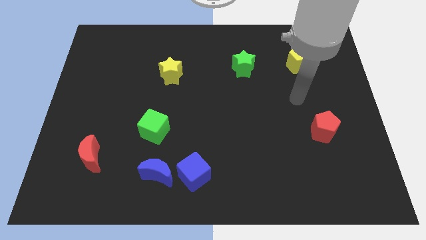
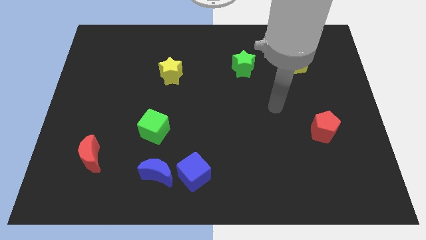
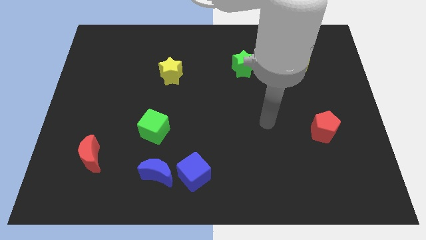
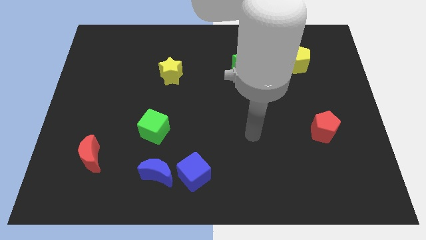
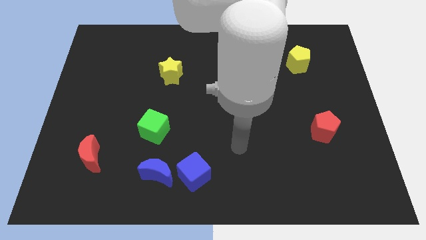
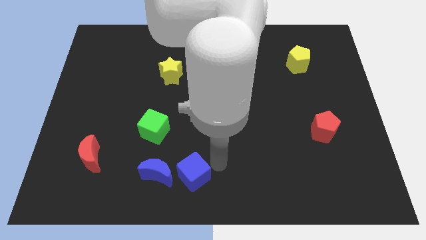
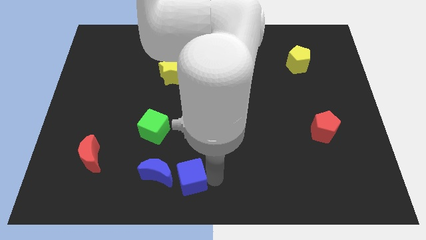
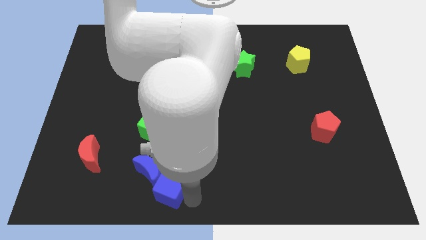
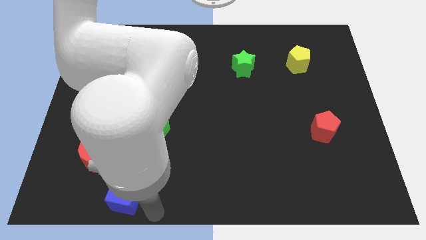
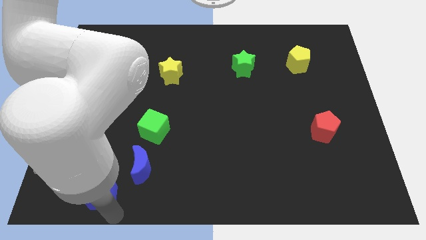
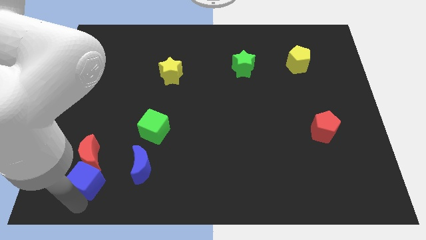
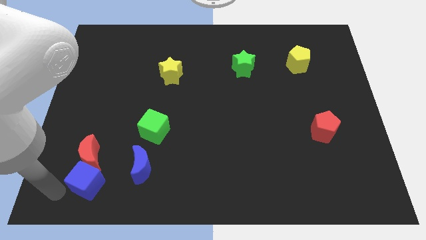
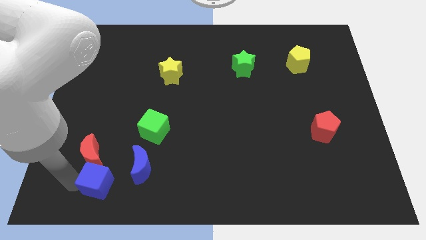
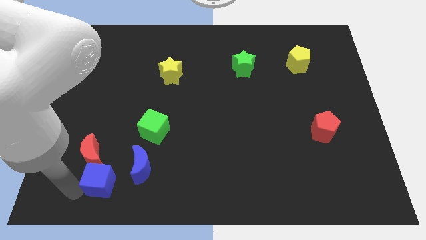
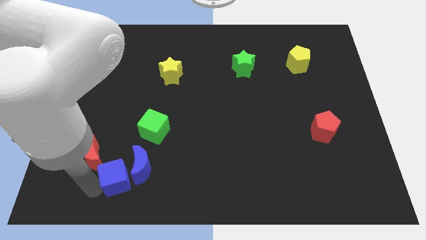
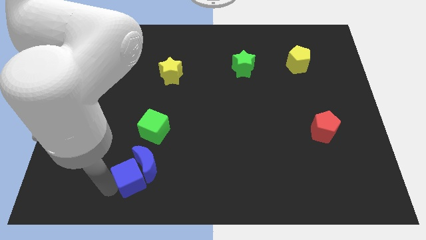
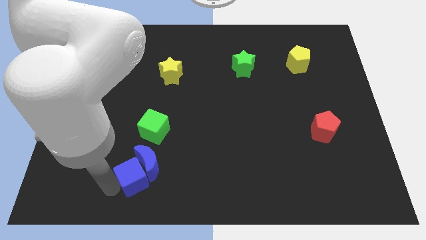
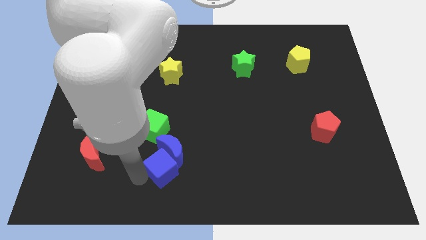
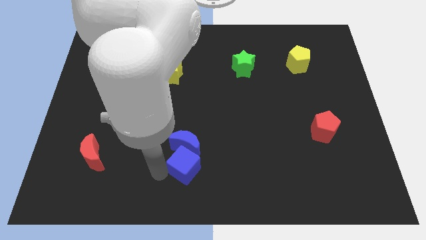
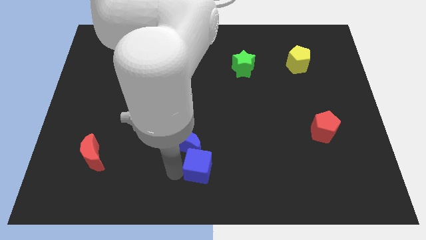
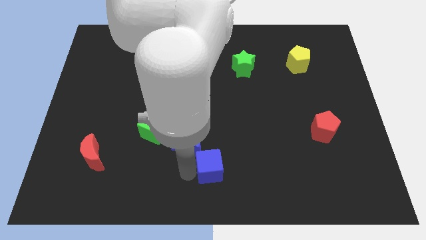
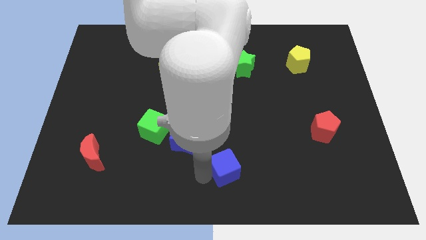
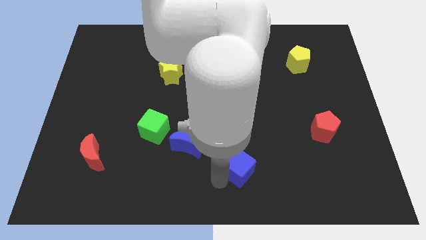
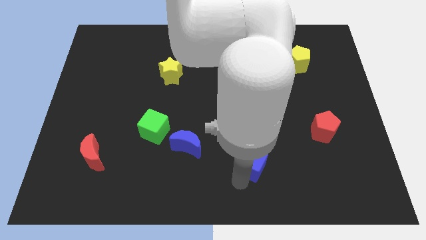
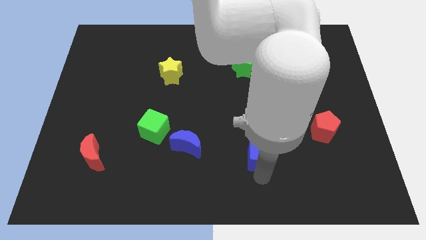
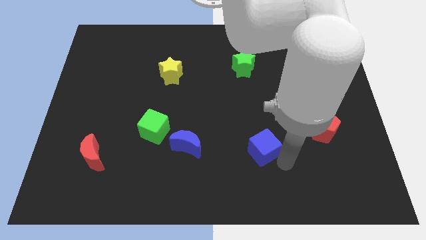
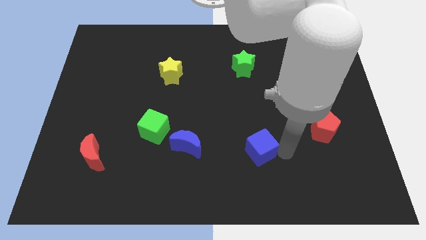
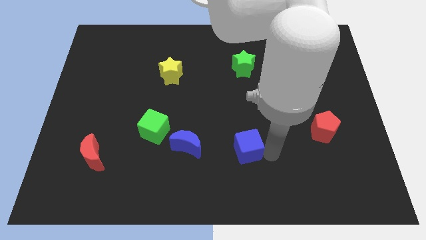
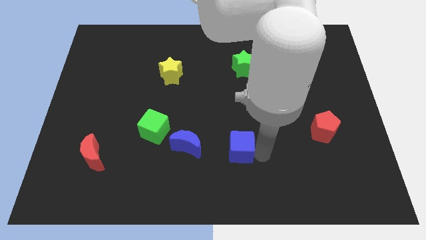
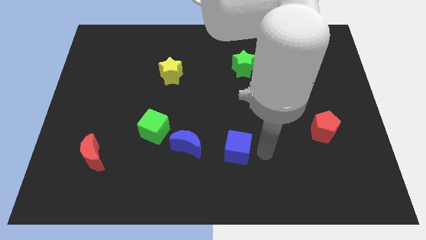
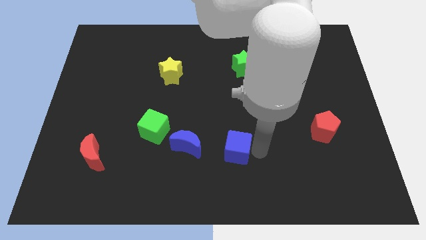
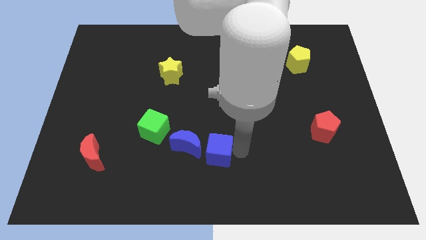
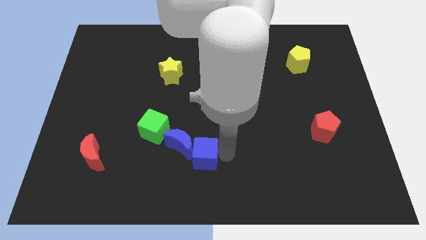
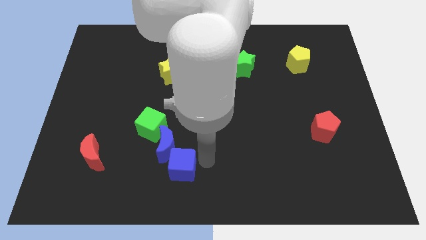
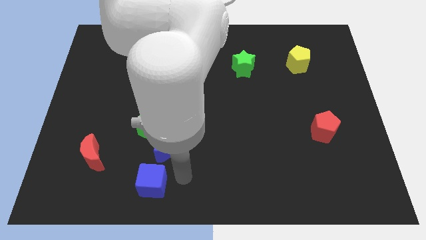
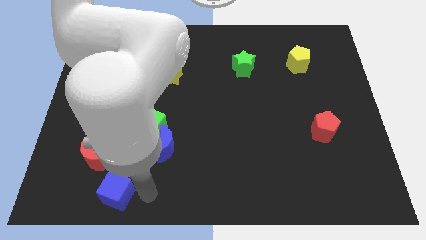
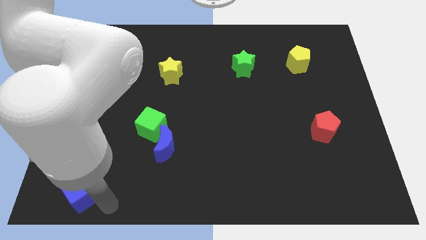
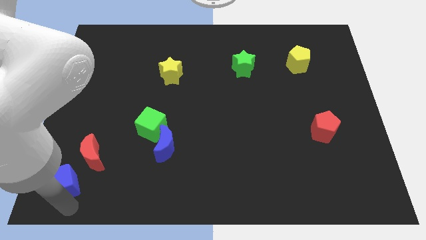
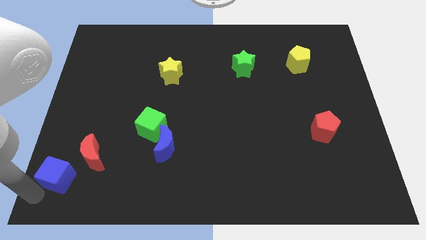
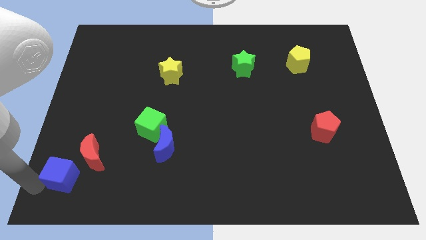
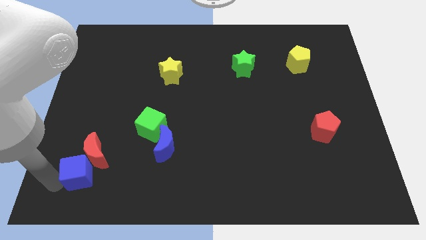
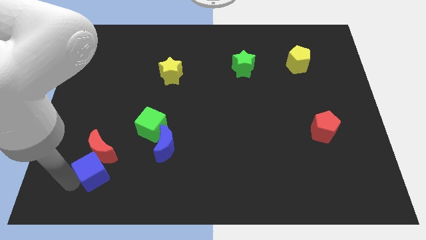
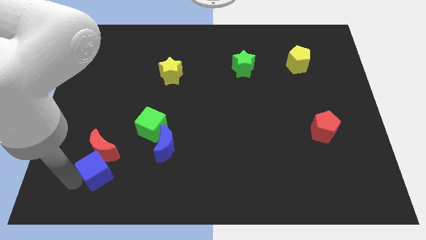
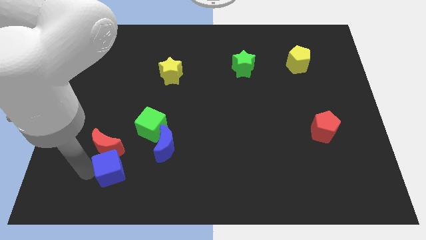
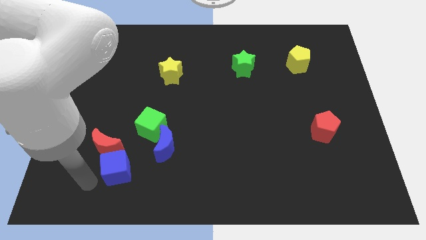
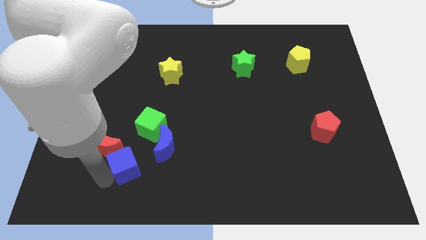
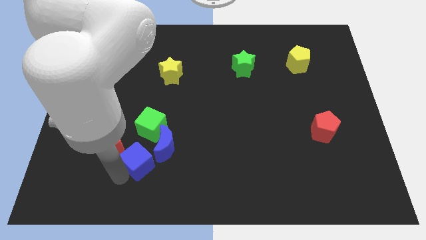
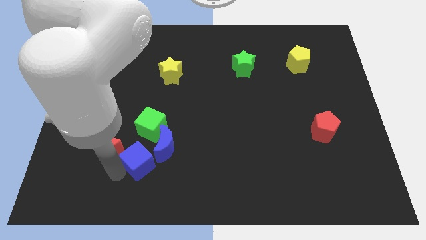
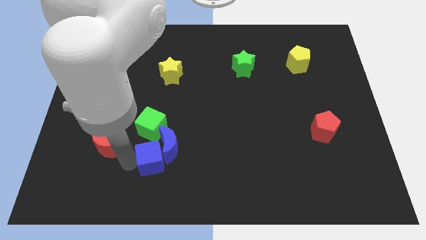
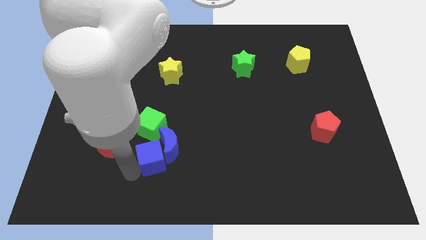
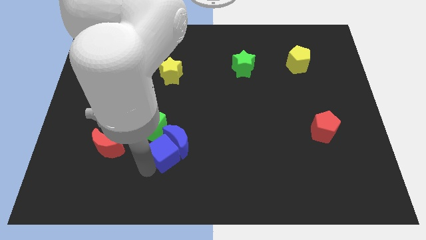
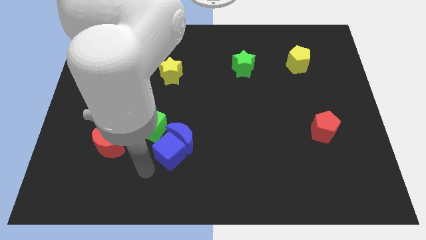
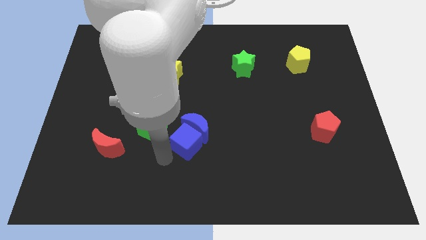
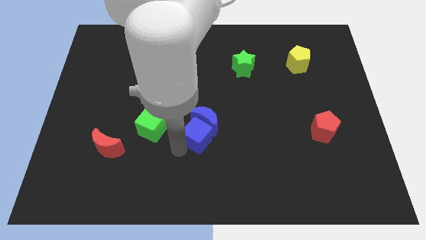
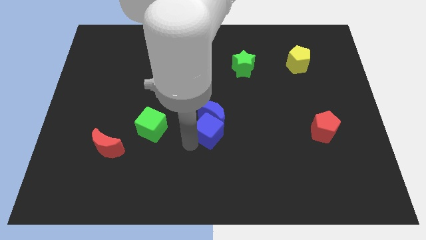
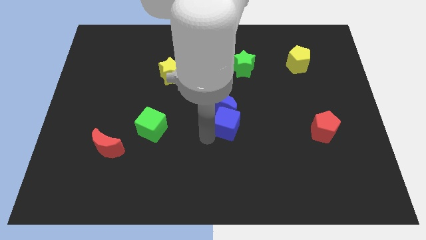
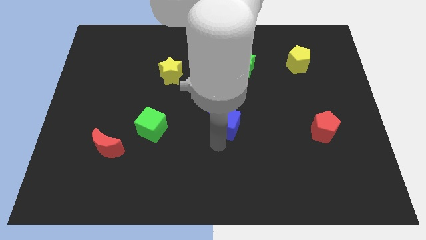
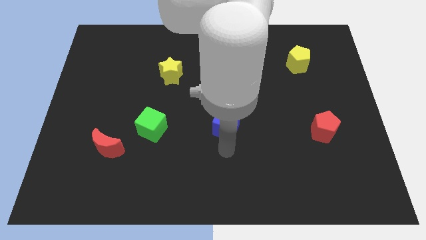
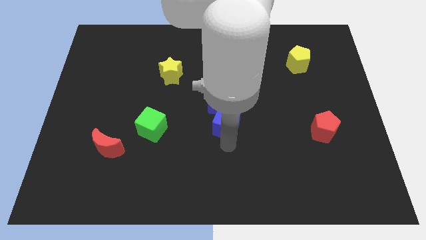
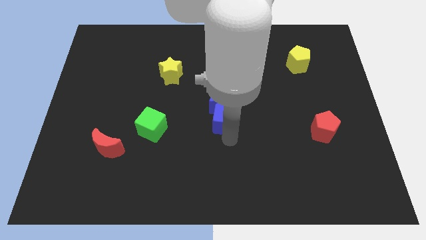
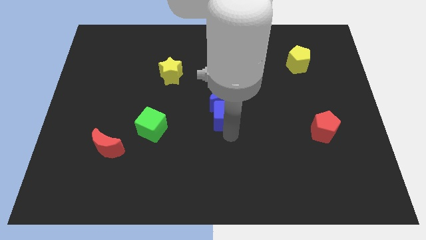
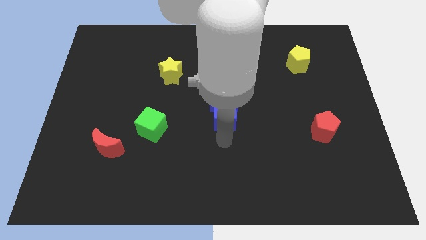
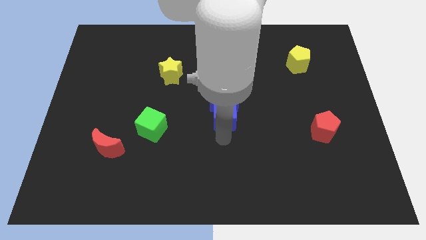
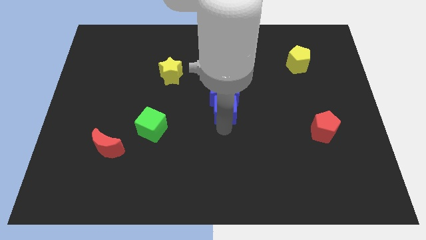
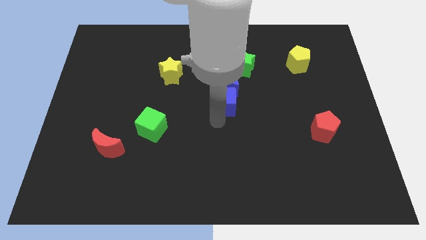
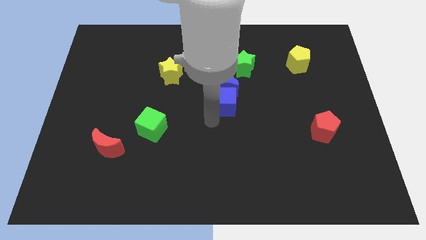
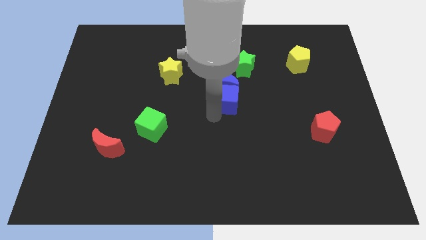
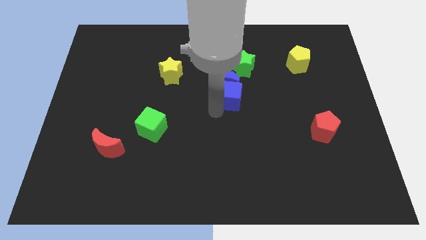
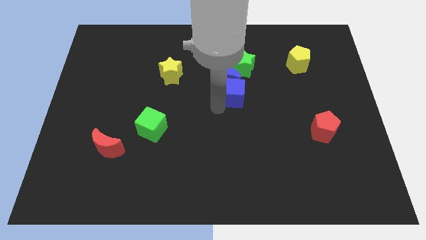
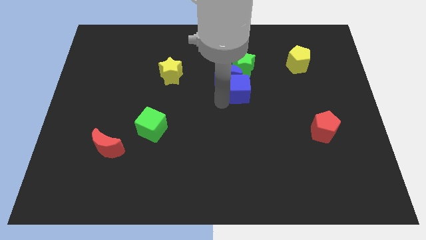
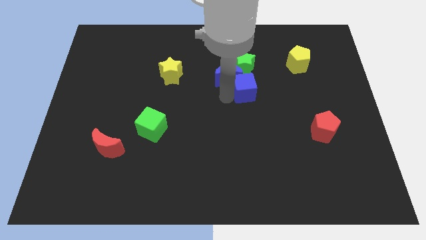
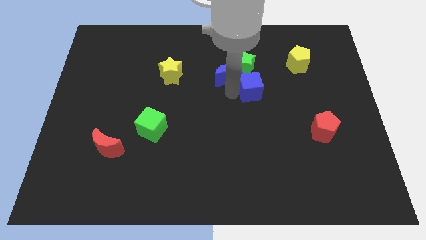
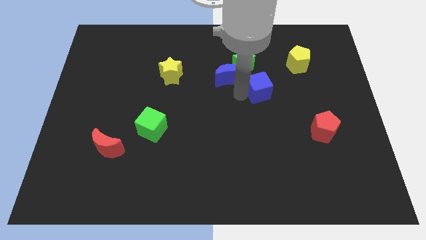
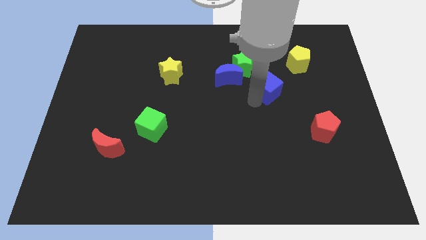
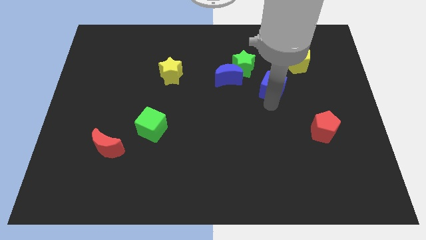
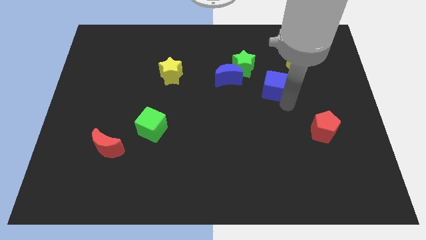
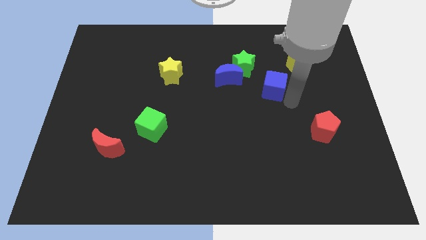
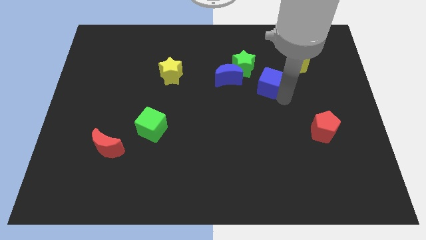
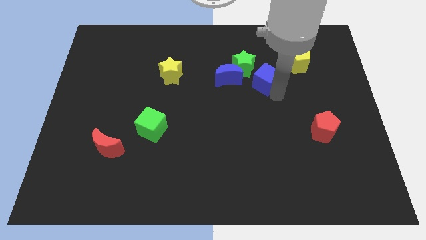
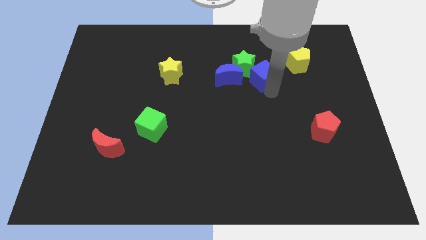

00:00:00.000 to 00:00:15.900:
move the blue cube to the green star
